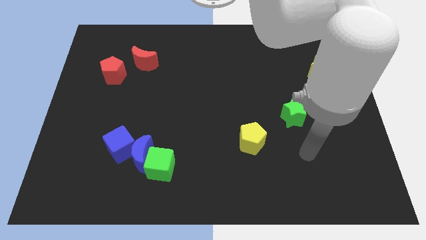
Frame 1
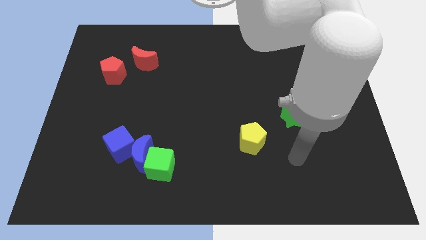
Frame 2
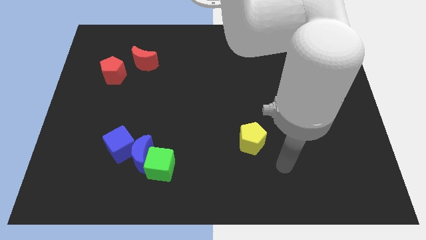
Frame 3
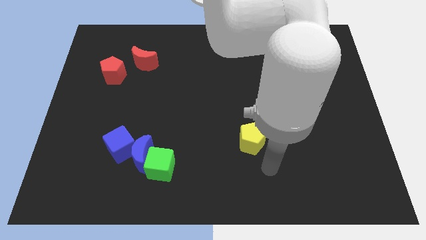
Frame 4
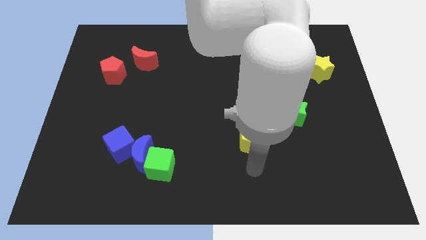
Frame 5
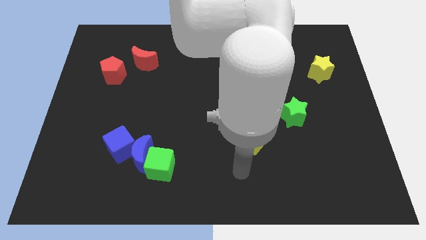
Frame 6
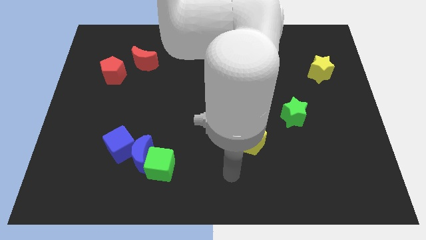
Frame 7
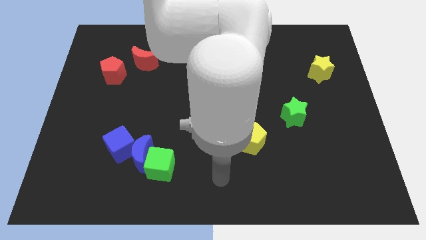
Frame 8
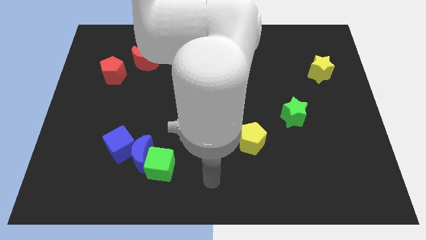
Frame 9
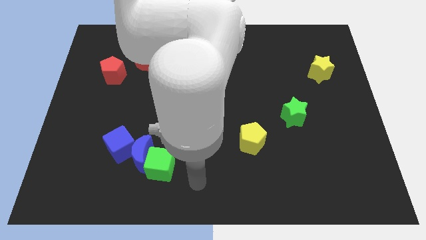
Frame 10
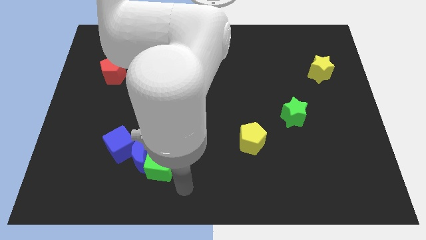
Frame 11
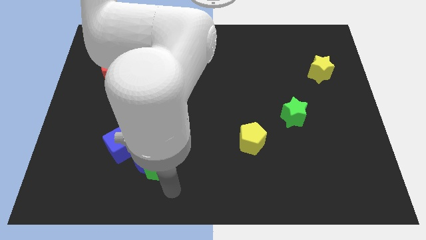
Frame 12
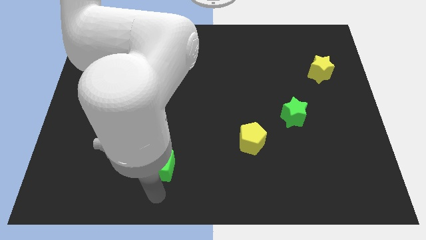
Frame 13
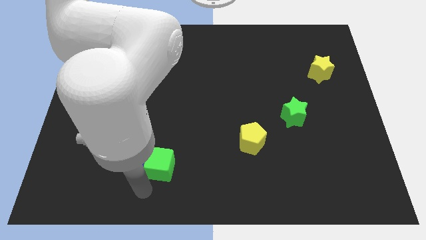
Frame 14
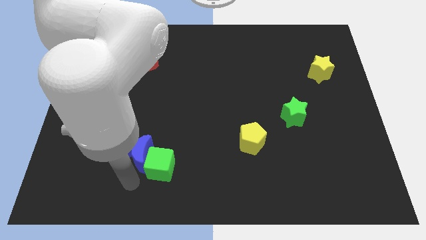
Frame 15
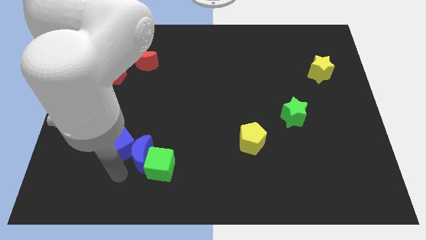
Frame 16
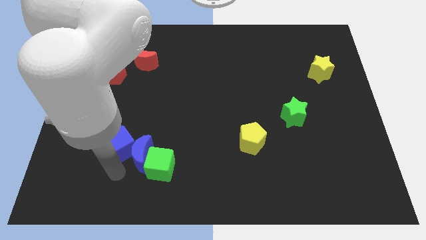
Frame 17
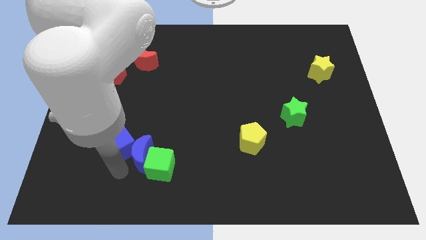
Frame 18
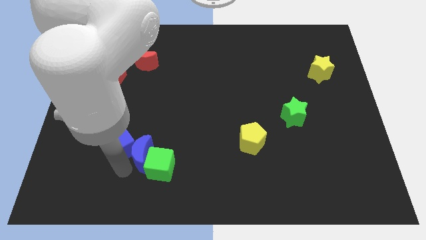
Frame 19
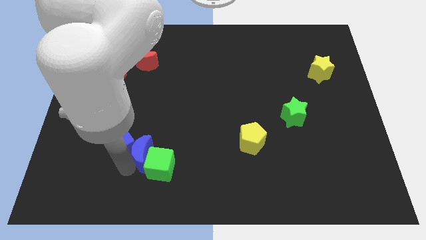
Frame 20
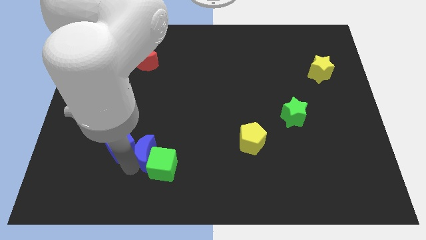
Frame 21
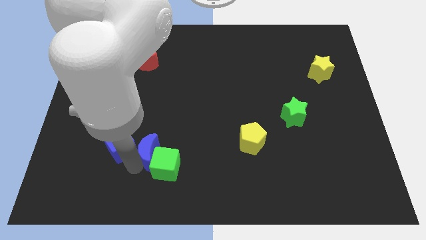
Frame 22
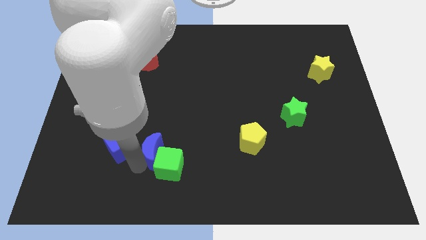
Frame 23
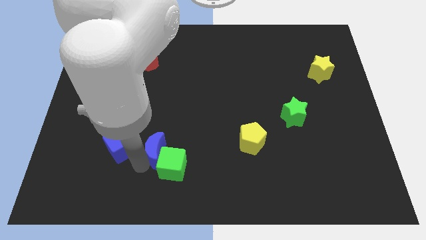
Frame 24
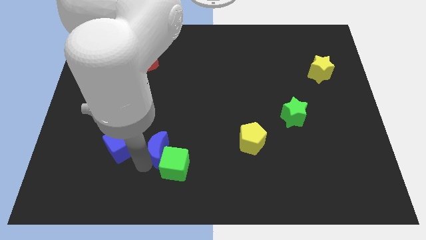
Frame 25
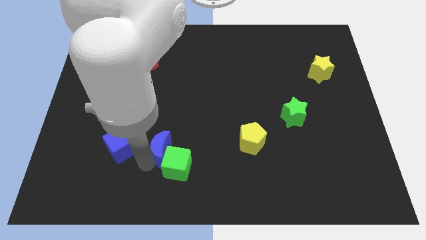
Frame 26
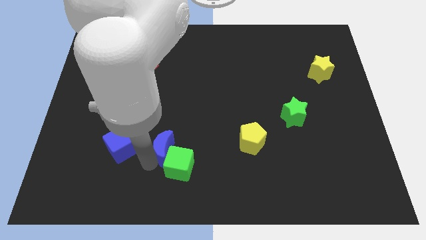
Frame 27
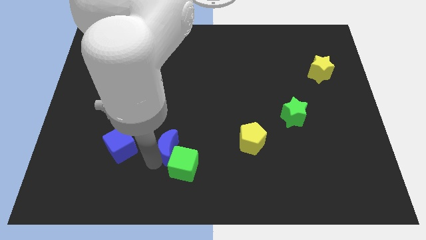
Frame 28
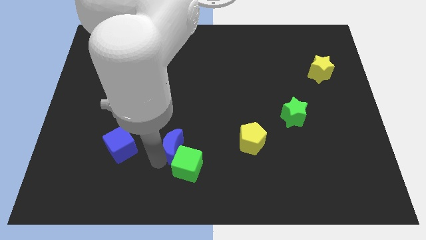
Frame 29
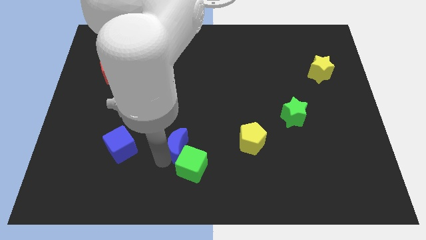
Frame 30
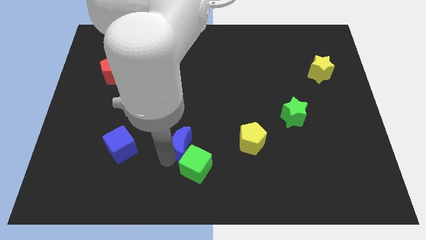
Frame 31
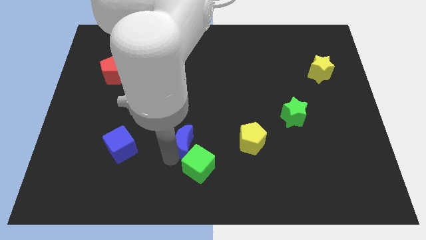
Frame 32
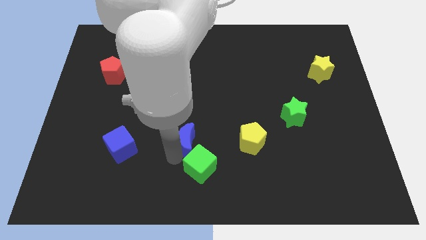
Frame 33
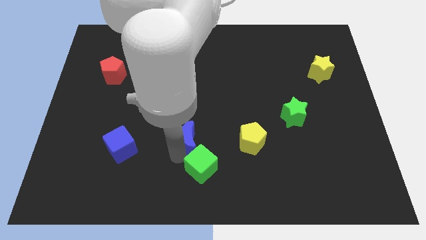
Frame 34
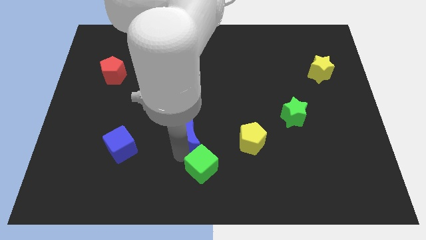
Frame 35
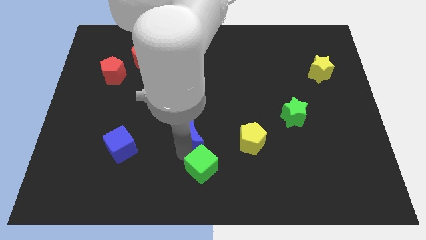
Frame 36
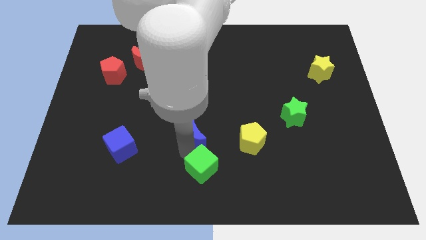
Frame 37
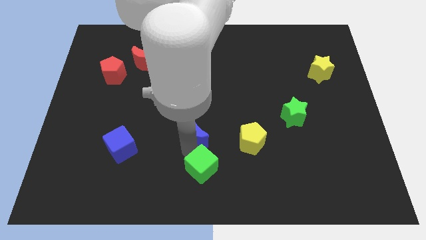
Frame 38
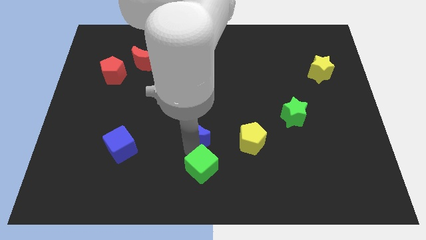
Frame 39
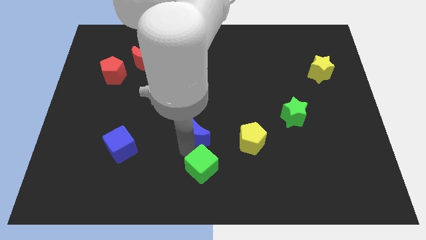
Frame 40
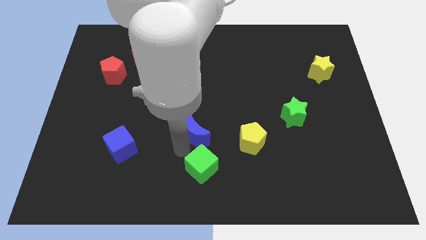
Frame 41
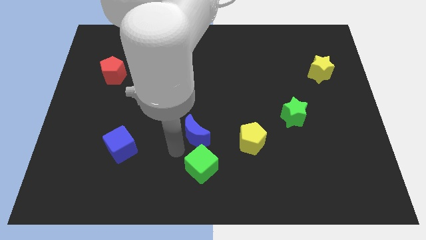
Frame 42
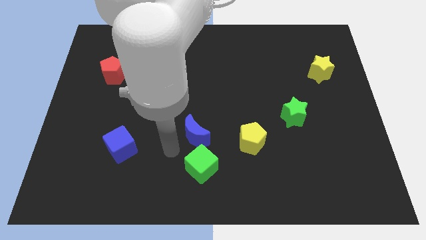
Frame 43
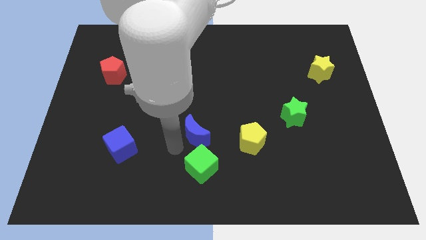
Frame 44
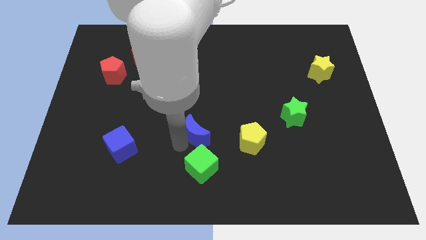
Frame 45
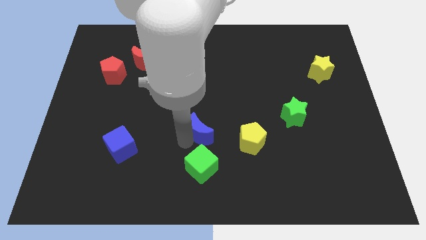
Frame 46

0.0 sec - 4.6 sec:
pull the blue moon apart from the green cube and blue cube

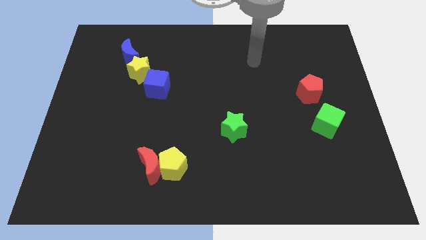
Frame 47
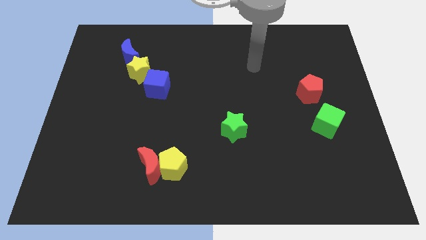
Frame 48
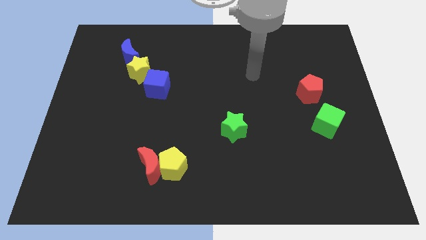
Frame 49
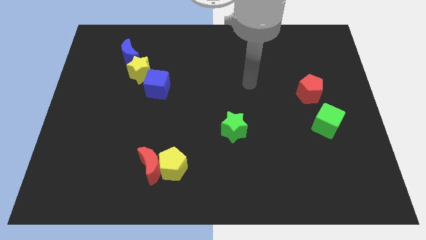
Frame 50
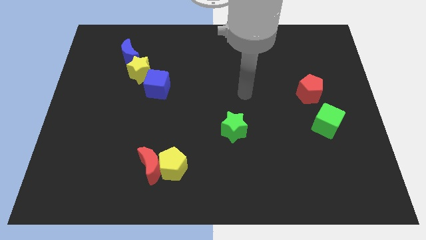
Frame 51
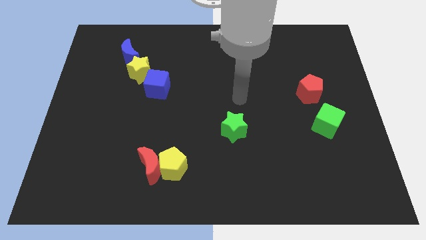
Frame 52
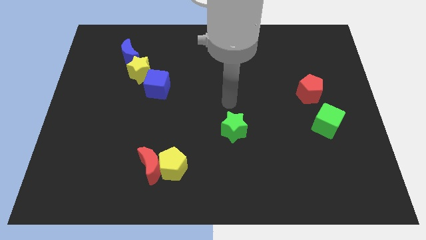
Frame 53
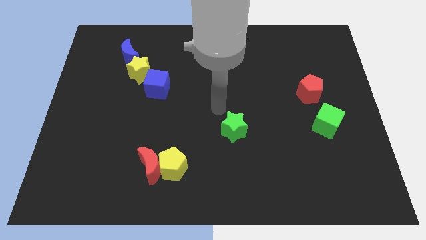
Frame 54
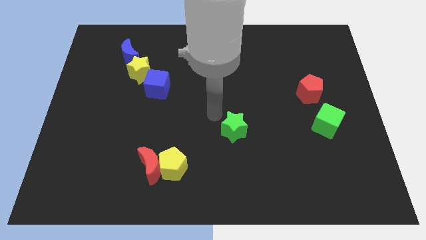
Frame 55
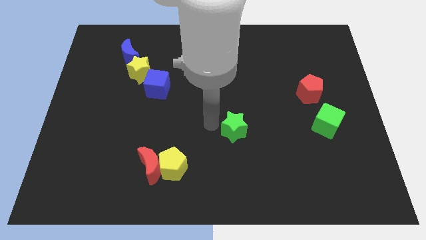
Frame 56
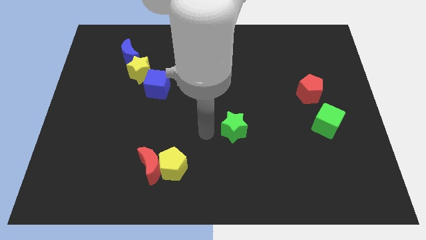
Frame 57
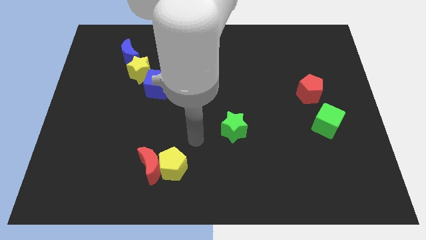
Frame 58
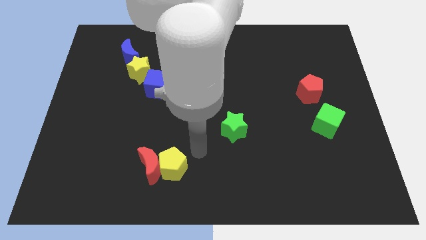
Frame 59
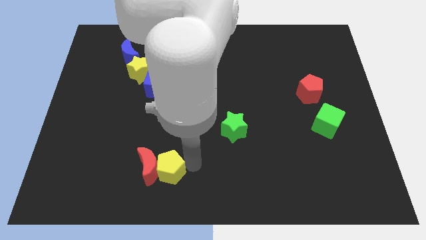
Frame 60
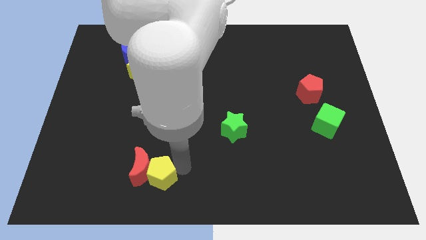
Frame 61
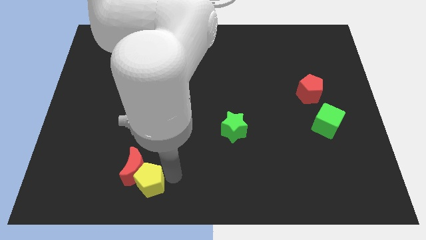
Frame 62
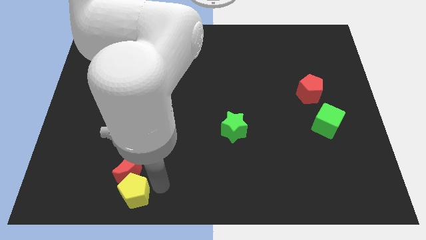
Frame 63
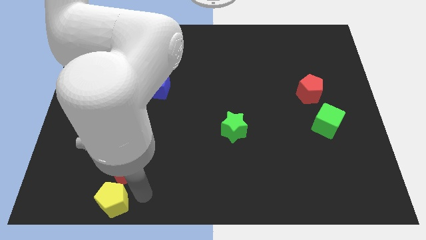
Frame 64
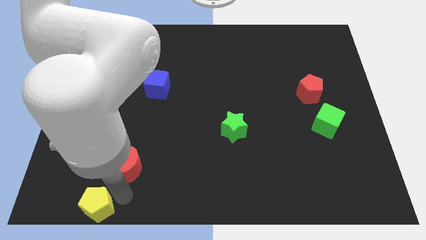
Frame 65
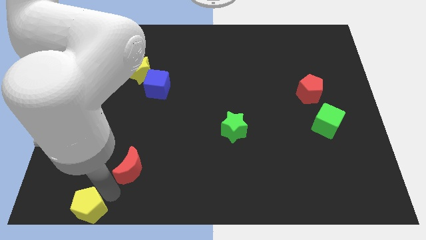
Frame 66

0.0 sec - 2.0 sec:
pull the red moon apart from the yellow pentagon

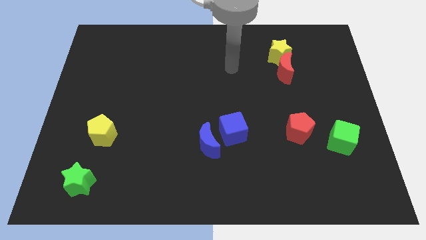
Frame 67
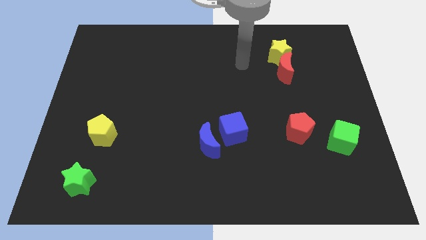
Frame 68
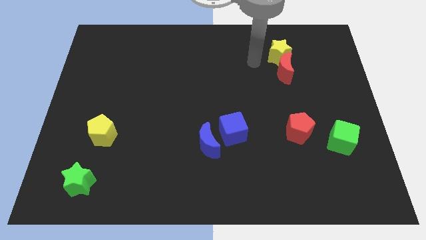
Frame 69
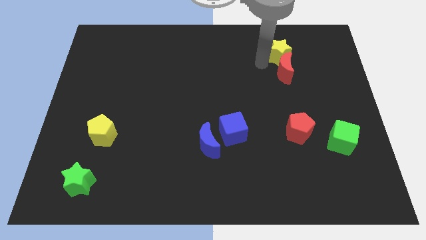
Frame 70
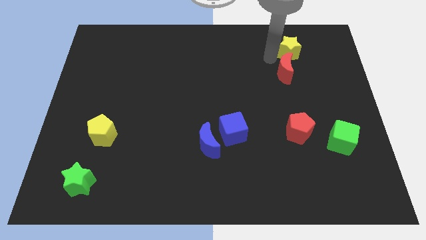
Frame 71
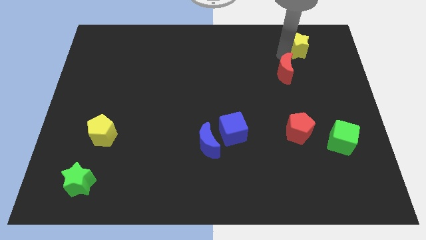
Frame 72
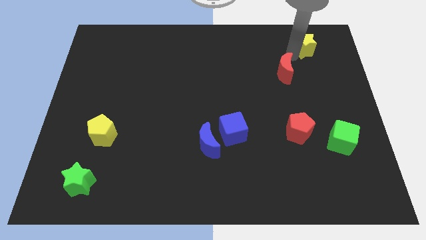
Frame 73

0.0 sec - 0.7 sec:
move the red moon away from the yellow star

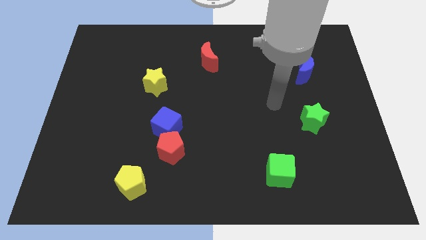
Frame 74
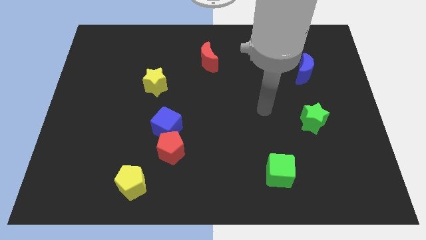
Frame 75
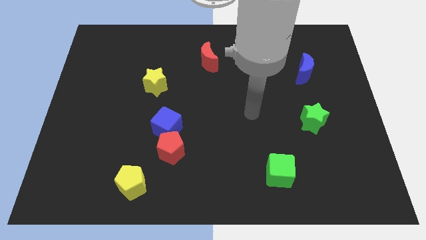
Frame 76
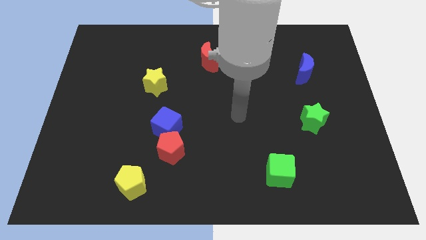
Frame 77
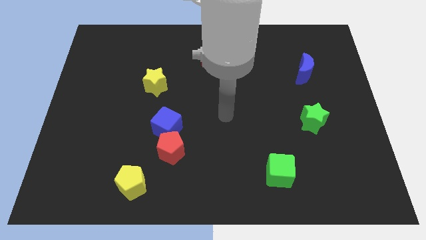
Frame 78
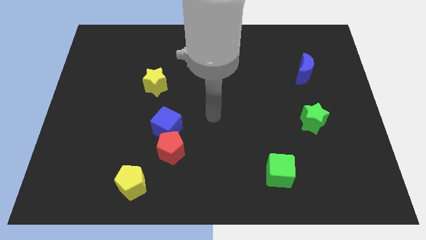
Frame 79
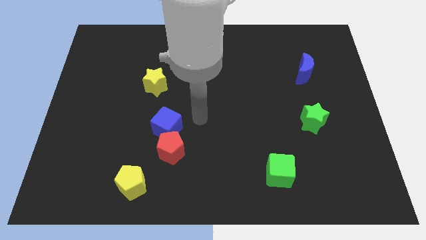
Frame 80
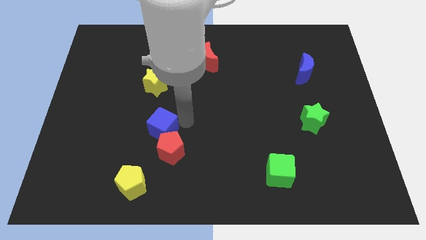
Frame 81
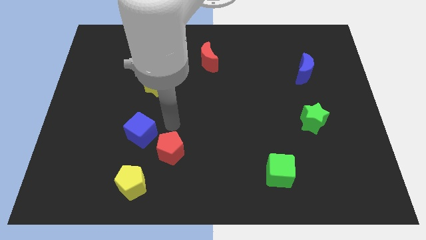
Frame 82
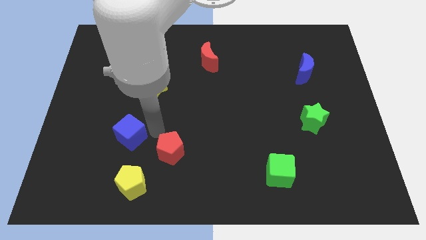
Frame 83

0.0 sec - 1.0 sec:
separate the red pentagon from the blue cube

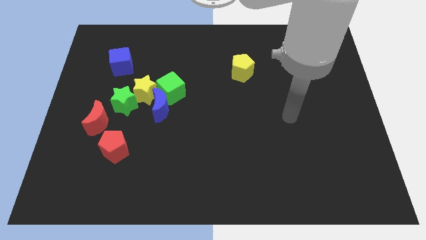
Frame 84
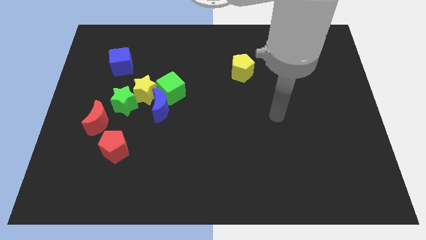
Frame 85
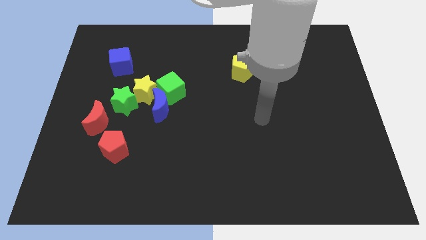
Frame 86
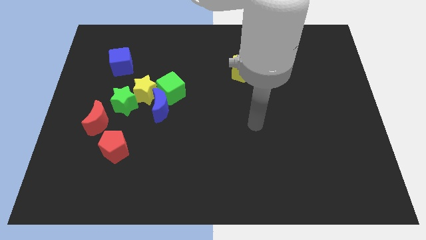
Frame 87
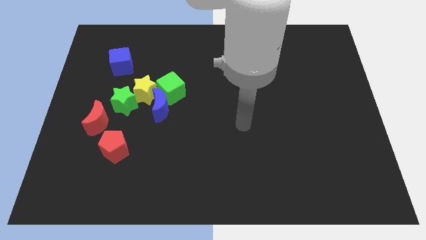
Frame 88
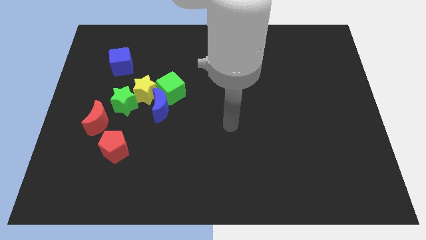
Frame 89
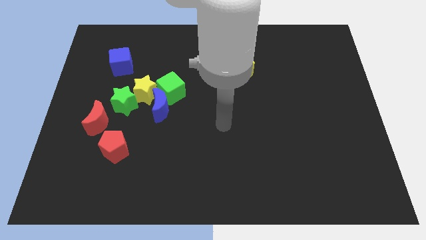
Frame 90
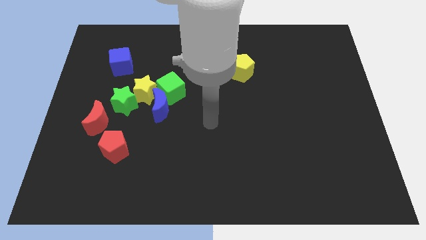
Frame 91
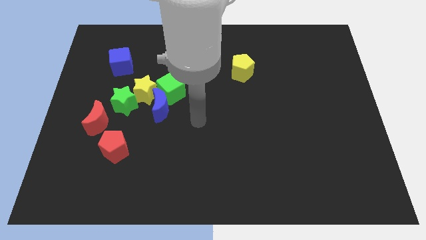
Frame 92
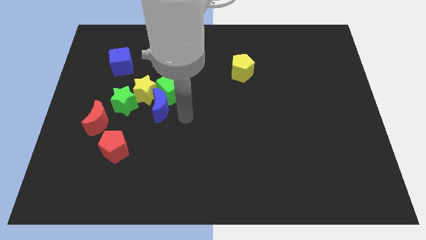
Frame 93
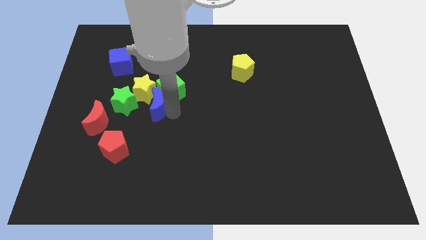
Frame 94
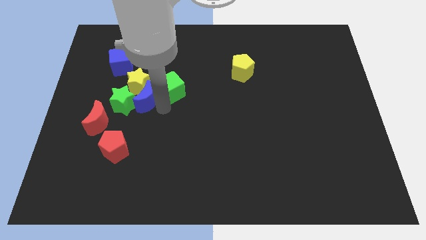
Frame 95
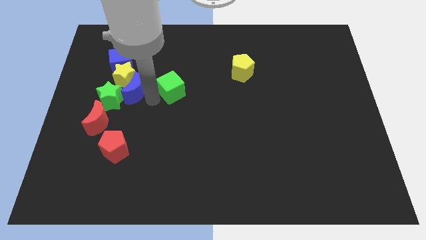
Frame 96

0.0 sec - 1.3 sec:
pull the green cube apart from the blue moon and yellow star
